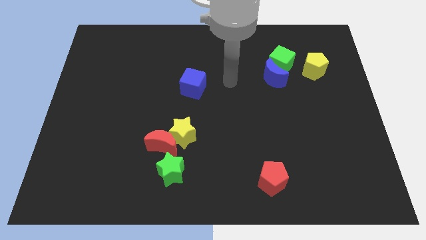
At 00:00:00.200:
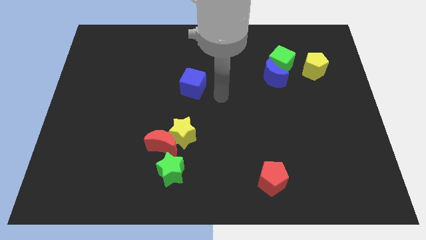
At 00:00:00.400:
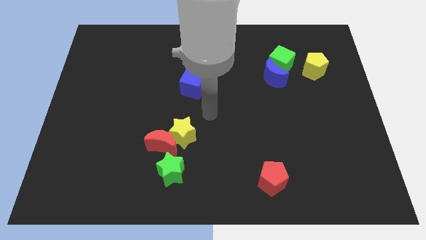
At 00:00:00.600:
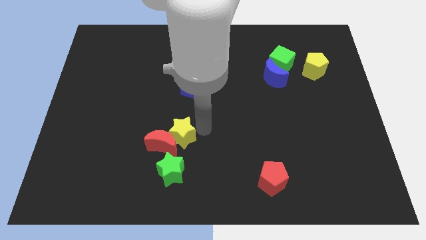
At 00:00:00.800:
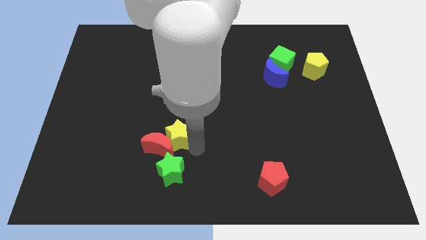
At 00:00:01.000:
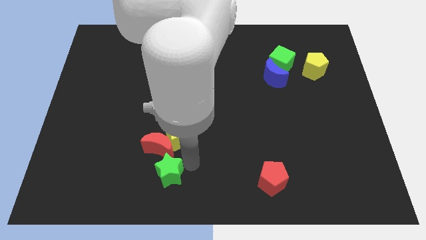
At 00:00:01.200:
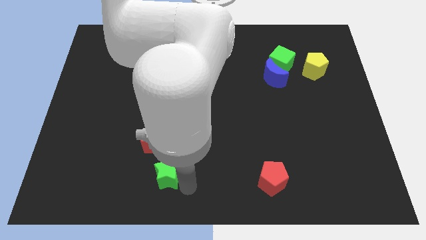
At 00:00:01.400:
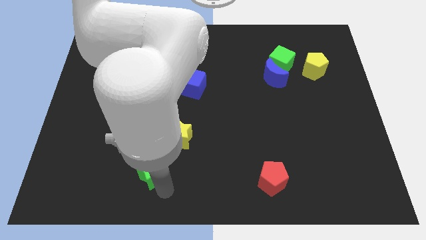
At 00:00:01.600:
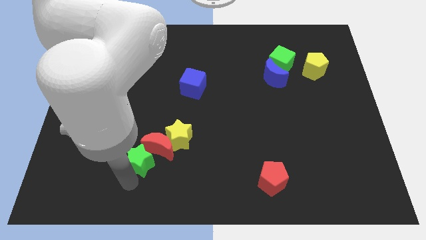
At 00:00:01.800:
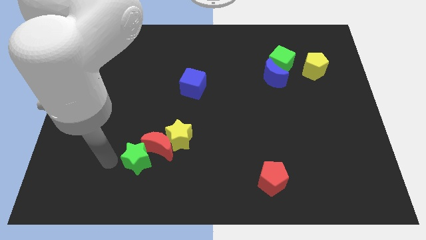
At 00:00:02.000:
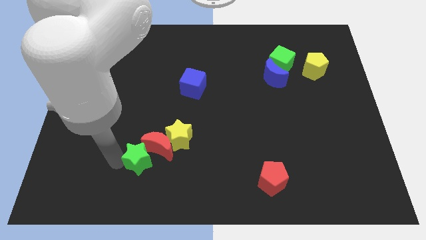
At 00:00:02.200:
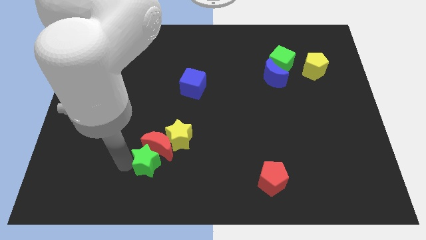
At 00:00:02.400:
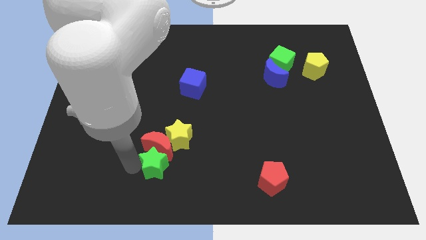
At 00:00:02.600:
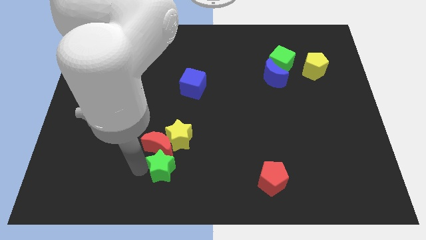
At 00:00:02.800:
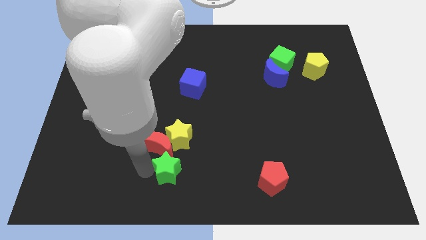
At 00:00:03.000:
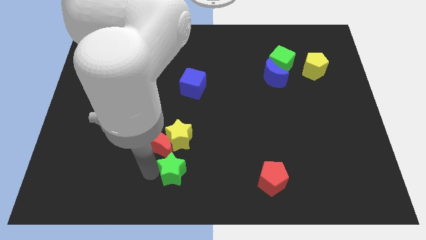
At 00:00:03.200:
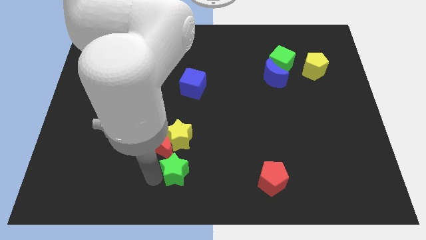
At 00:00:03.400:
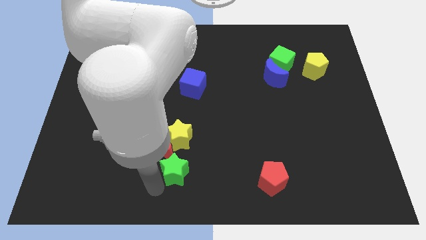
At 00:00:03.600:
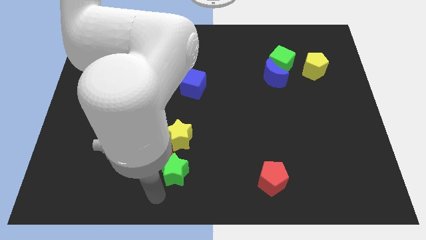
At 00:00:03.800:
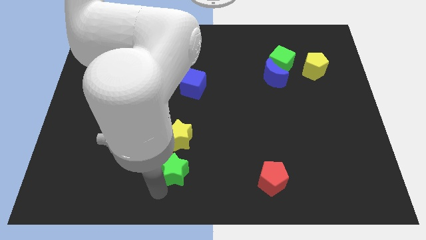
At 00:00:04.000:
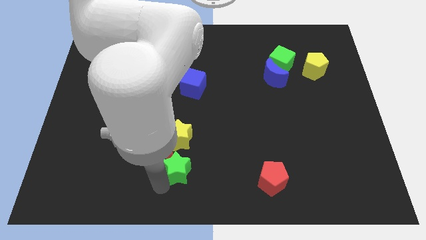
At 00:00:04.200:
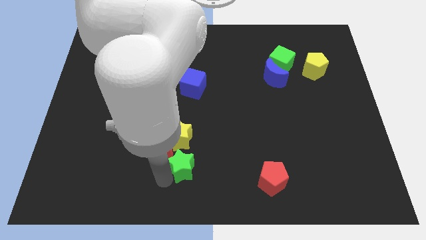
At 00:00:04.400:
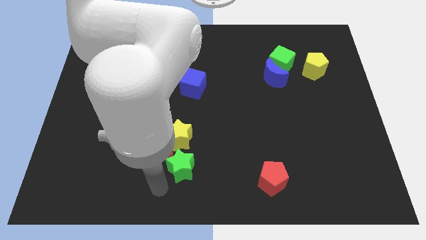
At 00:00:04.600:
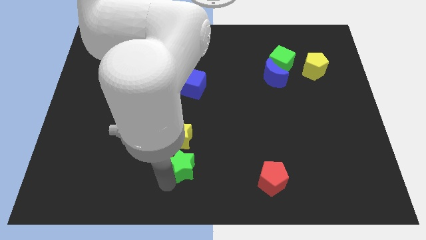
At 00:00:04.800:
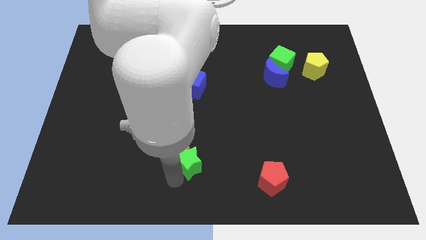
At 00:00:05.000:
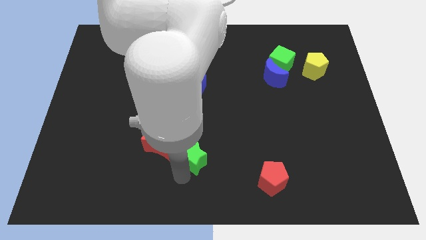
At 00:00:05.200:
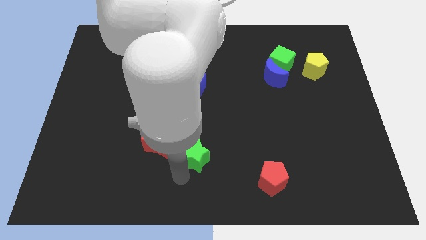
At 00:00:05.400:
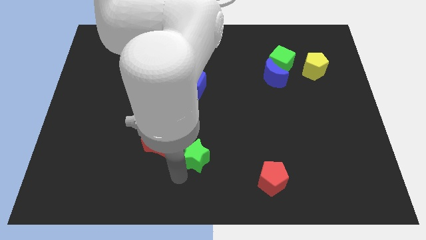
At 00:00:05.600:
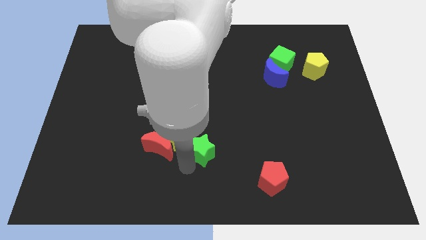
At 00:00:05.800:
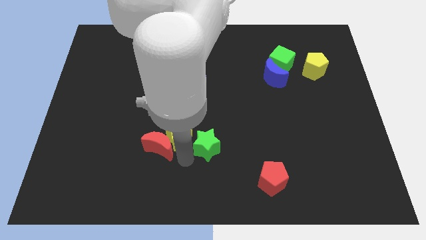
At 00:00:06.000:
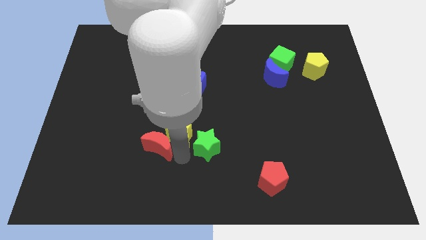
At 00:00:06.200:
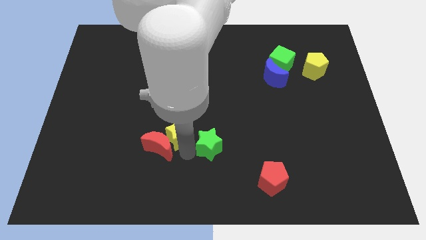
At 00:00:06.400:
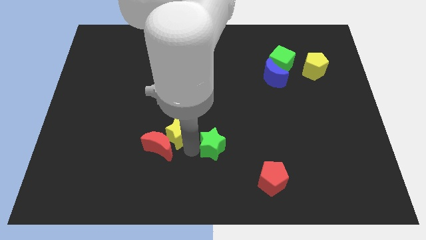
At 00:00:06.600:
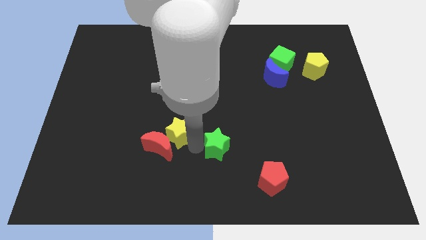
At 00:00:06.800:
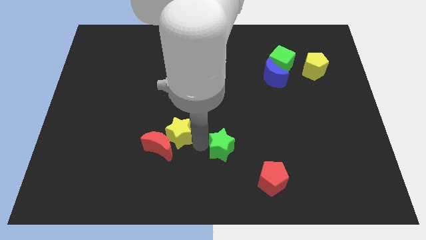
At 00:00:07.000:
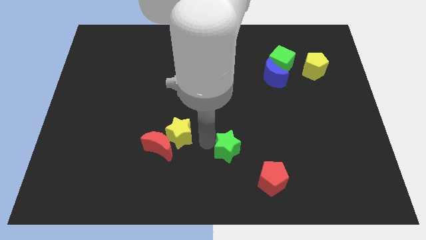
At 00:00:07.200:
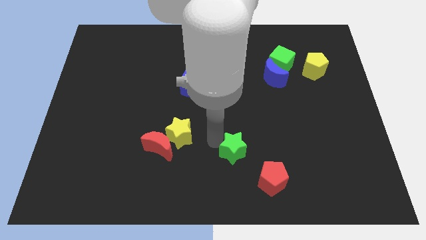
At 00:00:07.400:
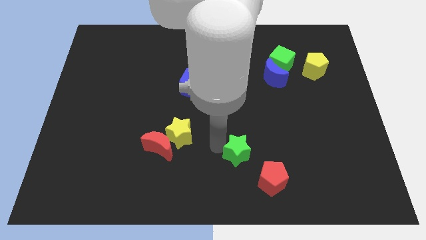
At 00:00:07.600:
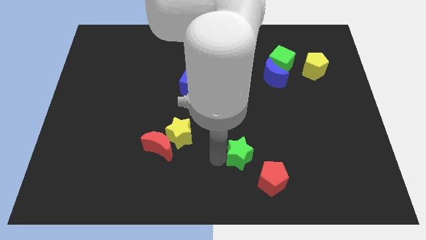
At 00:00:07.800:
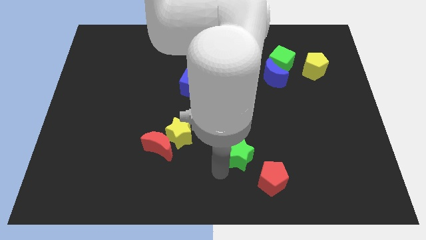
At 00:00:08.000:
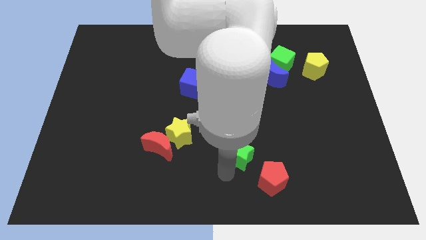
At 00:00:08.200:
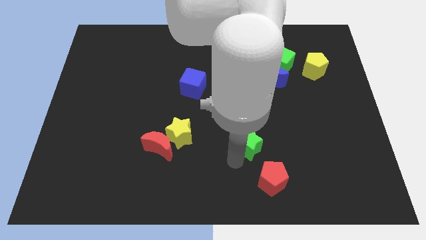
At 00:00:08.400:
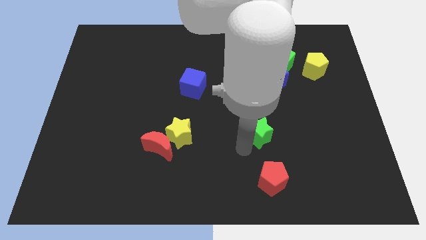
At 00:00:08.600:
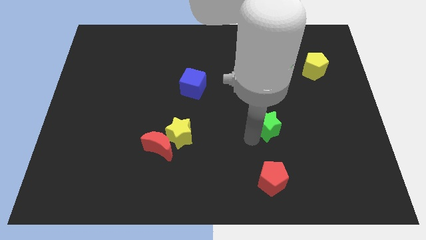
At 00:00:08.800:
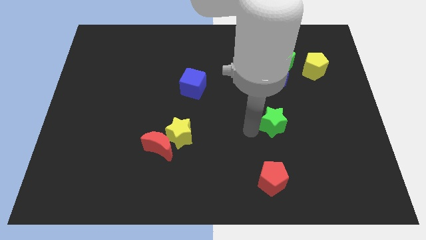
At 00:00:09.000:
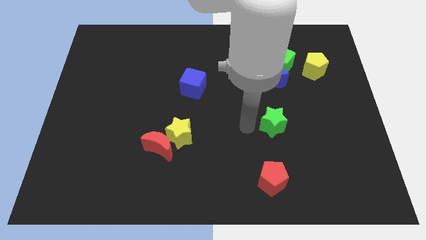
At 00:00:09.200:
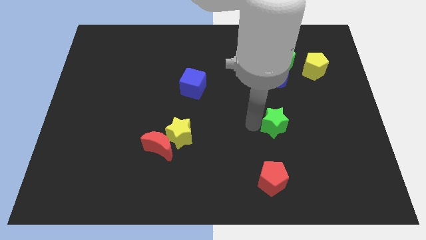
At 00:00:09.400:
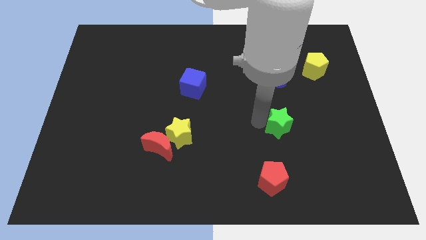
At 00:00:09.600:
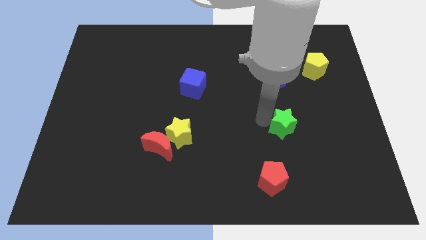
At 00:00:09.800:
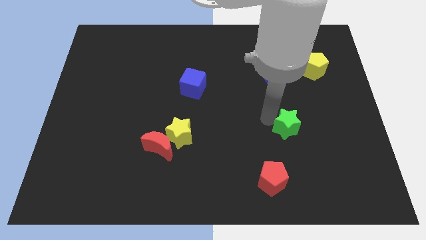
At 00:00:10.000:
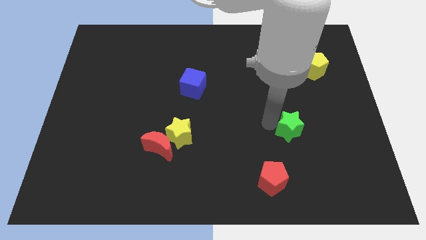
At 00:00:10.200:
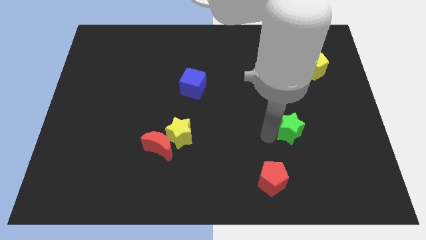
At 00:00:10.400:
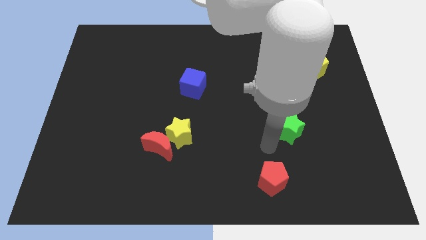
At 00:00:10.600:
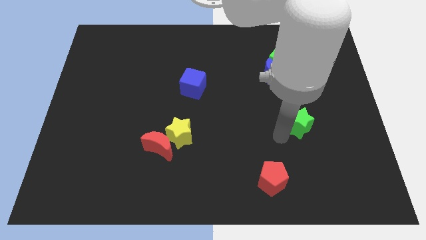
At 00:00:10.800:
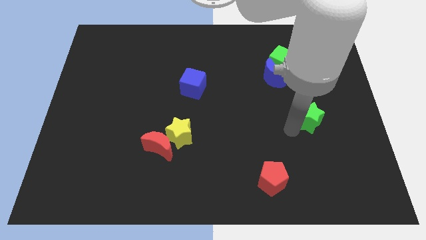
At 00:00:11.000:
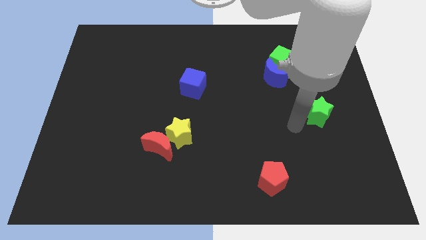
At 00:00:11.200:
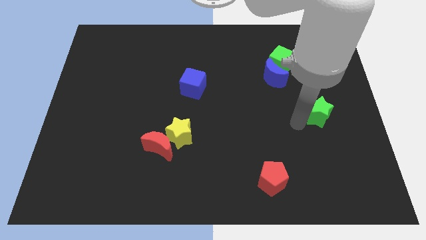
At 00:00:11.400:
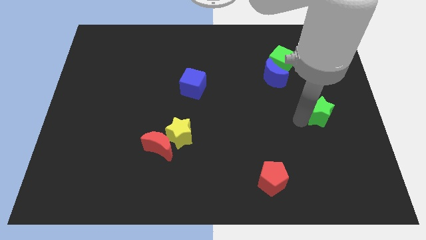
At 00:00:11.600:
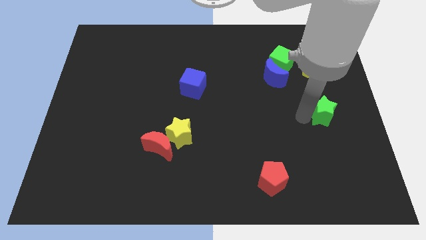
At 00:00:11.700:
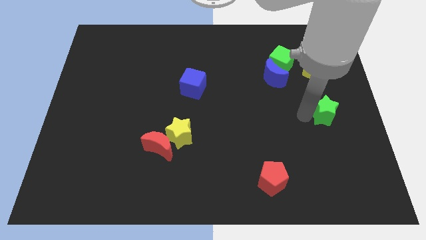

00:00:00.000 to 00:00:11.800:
push the green star to the center right

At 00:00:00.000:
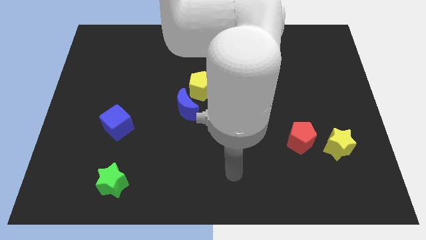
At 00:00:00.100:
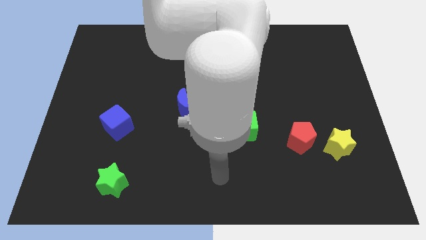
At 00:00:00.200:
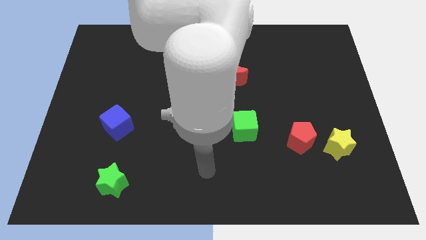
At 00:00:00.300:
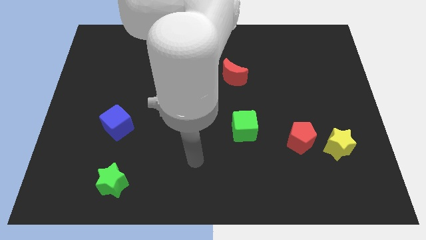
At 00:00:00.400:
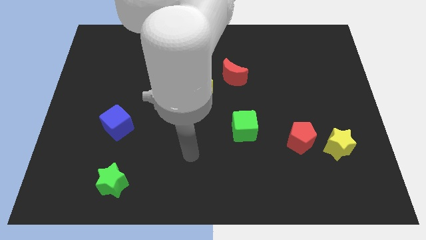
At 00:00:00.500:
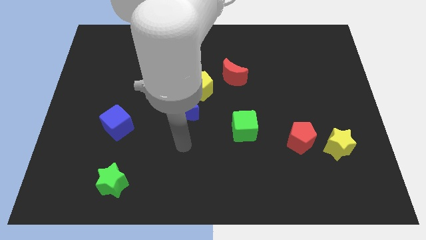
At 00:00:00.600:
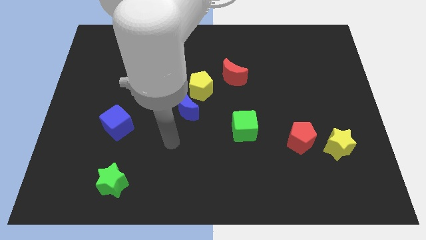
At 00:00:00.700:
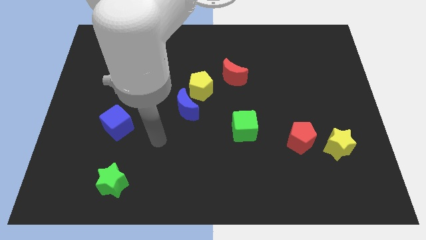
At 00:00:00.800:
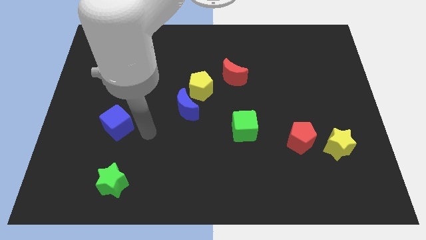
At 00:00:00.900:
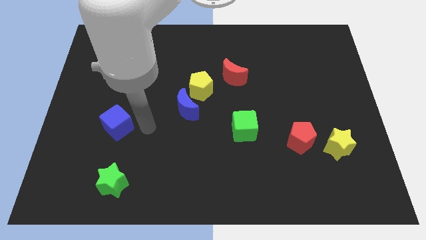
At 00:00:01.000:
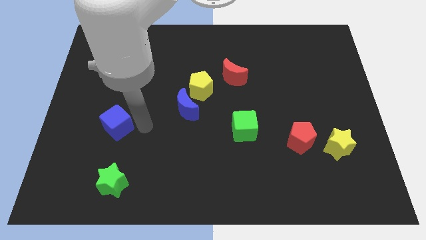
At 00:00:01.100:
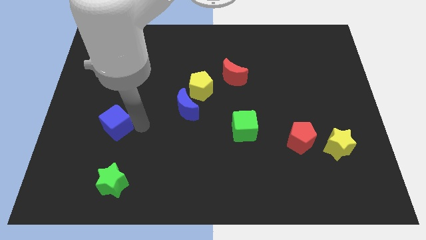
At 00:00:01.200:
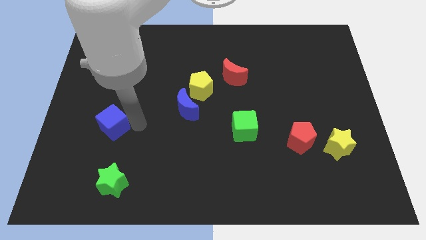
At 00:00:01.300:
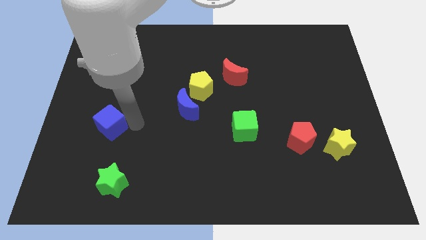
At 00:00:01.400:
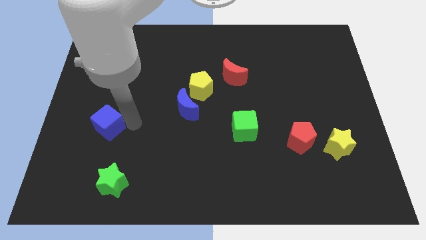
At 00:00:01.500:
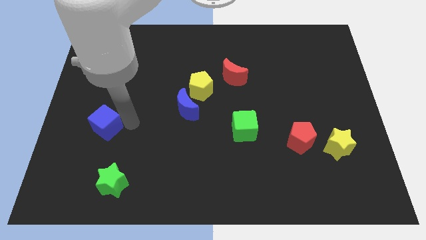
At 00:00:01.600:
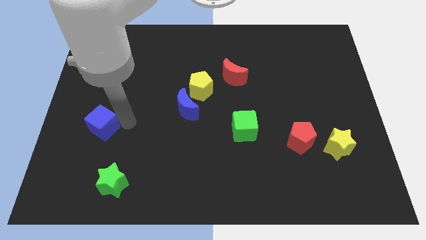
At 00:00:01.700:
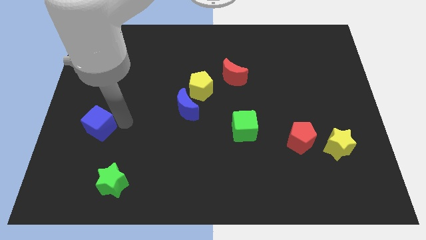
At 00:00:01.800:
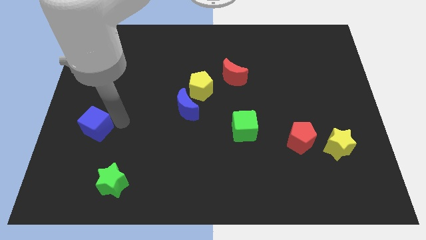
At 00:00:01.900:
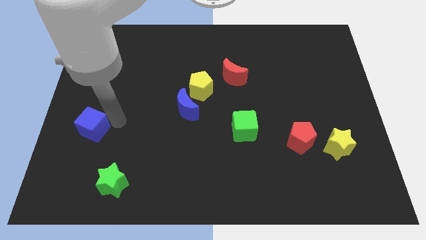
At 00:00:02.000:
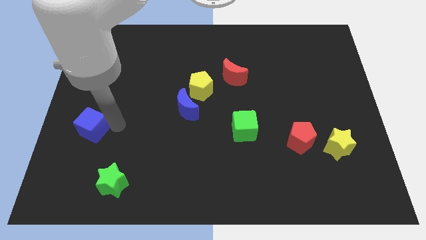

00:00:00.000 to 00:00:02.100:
push the blue cube to the left side
